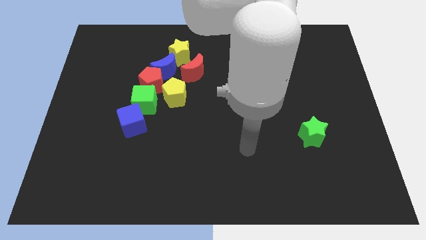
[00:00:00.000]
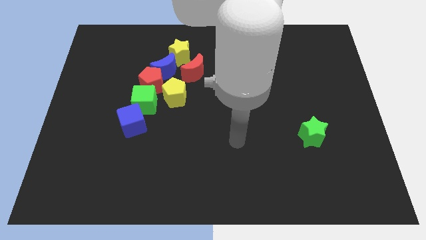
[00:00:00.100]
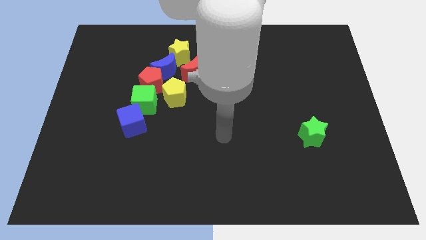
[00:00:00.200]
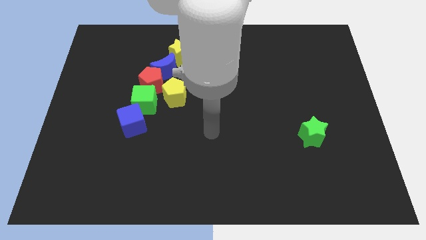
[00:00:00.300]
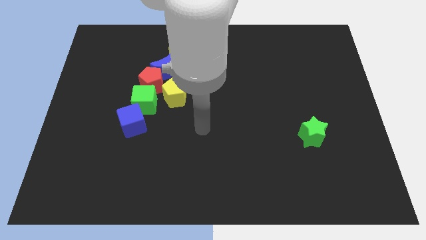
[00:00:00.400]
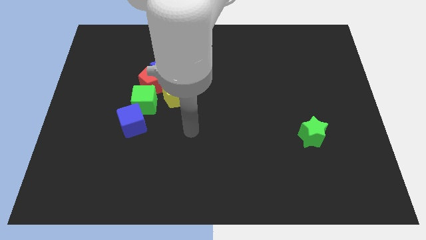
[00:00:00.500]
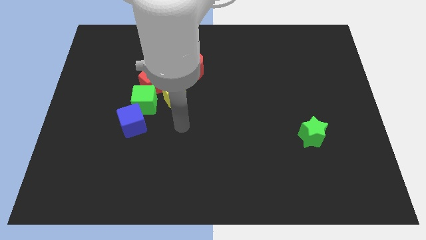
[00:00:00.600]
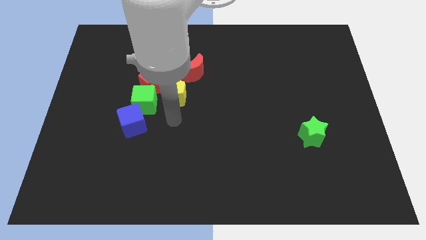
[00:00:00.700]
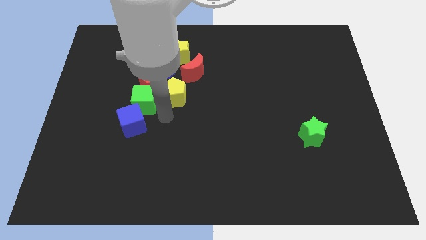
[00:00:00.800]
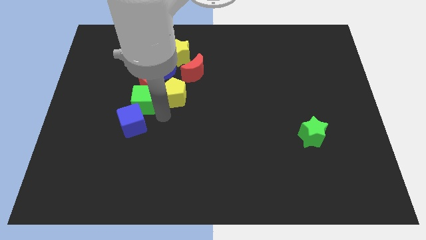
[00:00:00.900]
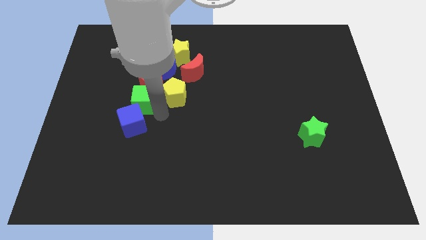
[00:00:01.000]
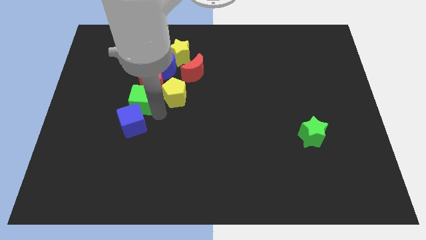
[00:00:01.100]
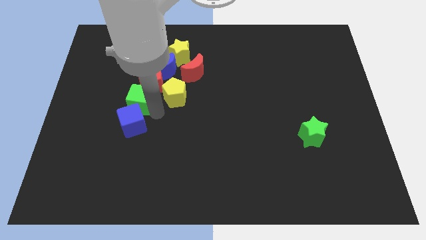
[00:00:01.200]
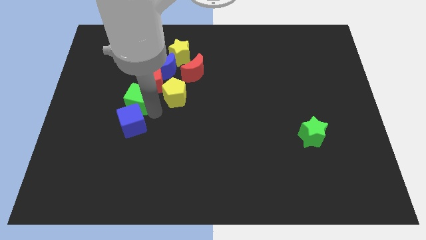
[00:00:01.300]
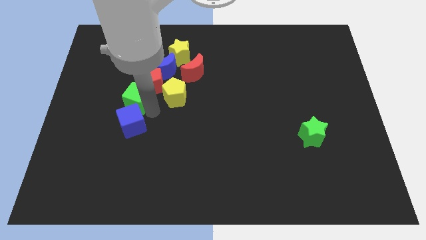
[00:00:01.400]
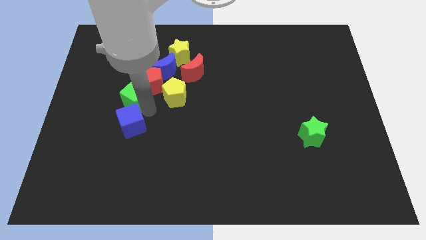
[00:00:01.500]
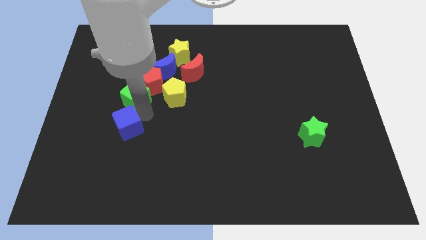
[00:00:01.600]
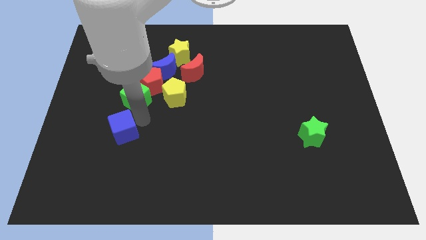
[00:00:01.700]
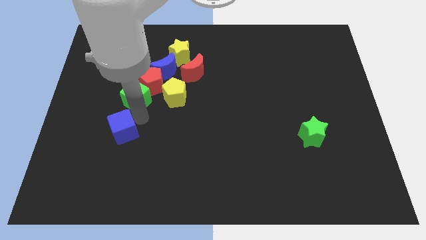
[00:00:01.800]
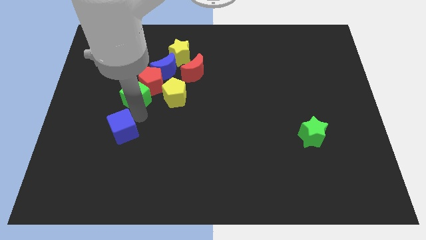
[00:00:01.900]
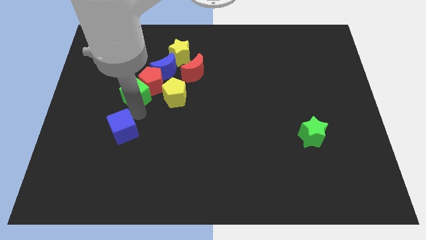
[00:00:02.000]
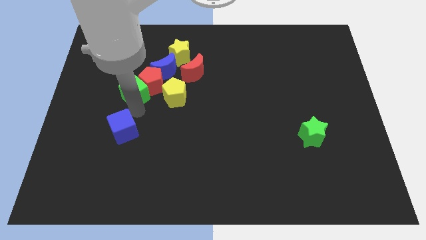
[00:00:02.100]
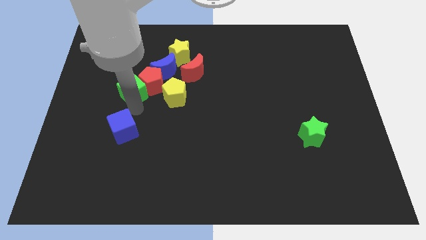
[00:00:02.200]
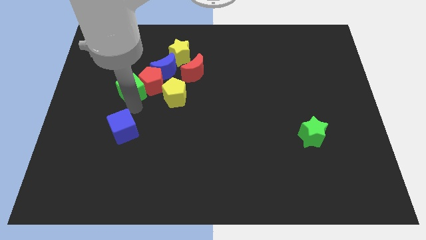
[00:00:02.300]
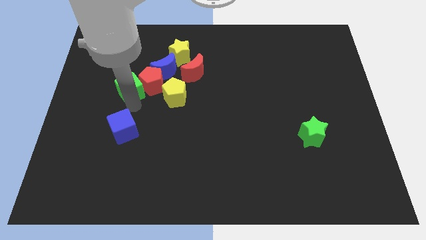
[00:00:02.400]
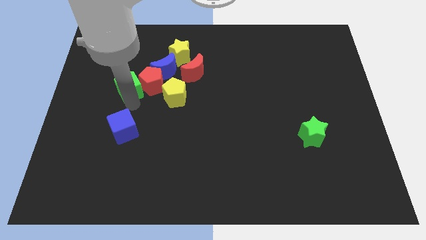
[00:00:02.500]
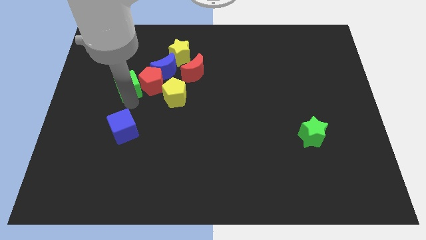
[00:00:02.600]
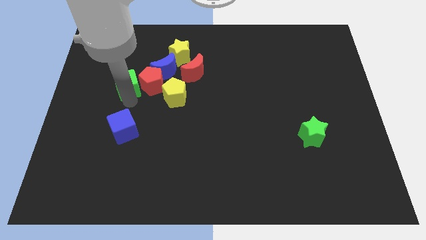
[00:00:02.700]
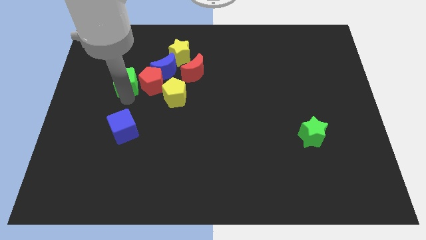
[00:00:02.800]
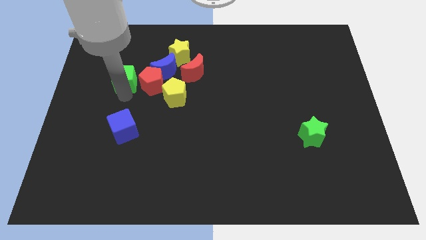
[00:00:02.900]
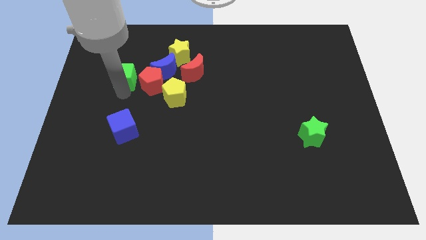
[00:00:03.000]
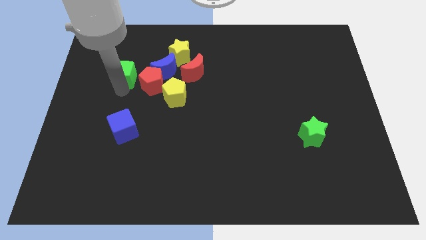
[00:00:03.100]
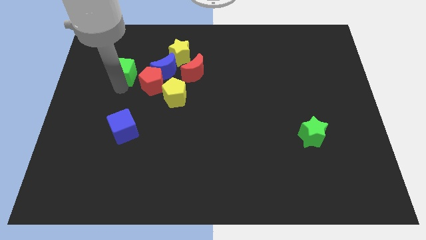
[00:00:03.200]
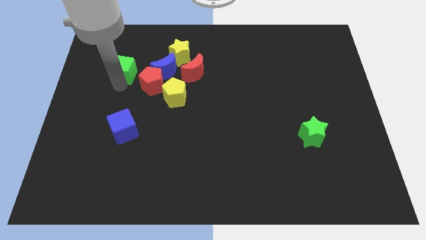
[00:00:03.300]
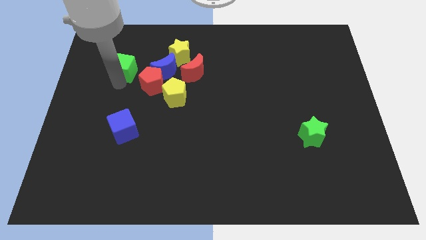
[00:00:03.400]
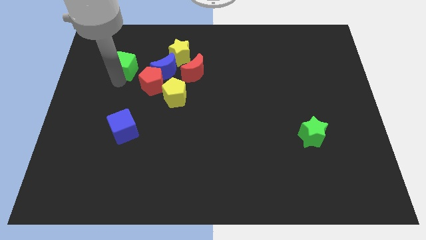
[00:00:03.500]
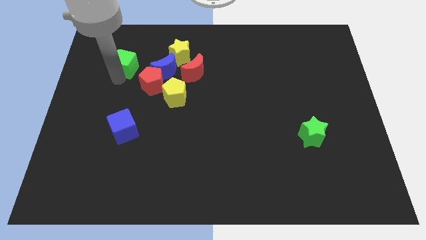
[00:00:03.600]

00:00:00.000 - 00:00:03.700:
slide the green cube left of the yellow star

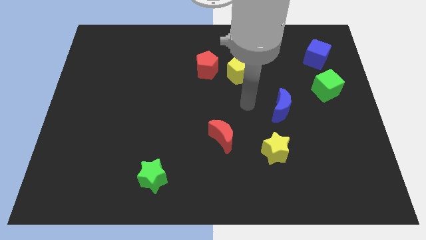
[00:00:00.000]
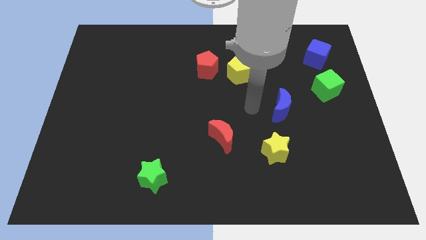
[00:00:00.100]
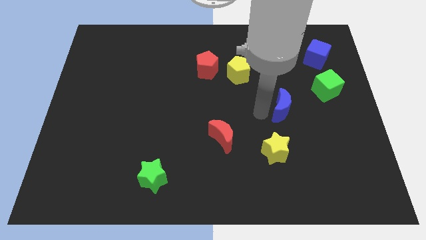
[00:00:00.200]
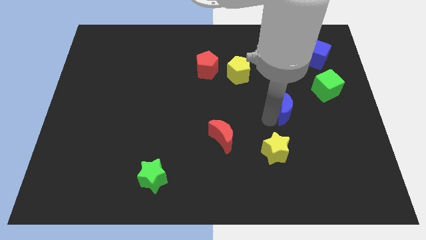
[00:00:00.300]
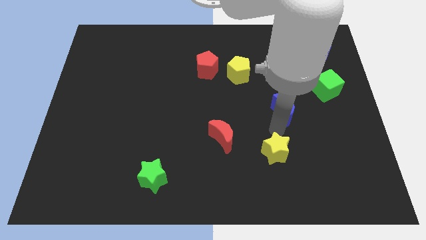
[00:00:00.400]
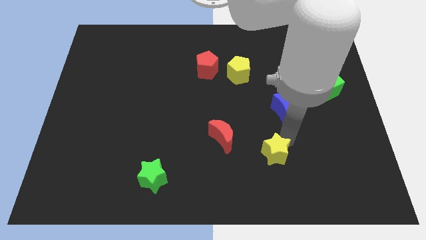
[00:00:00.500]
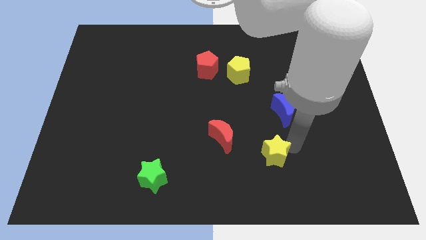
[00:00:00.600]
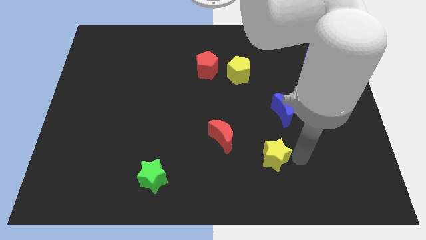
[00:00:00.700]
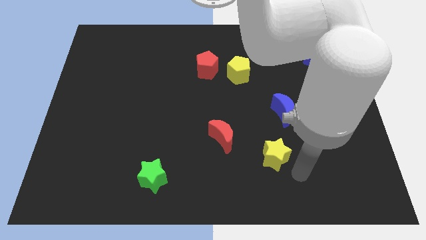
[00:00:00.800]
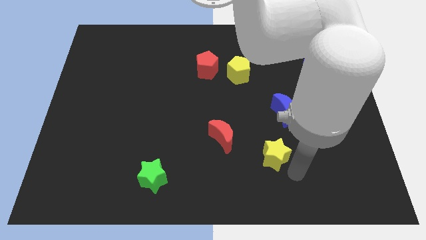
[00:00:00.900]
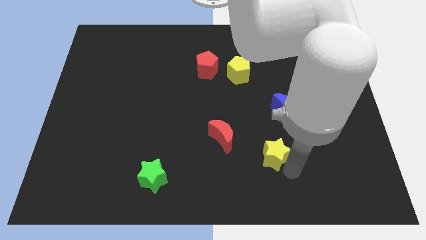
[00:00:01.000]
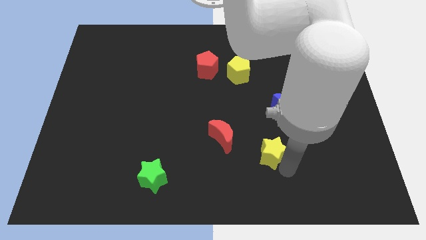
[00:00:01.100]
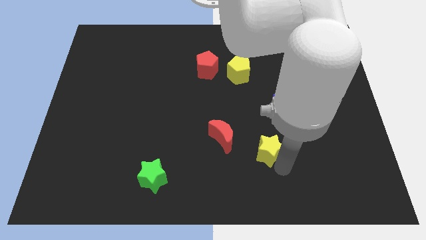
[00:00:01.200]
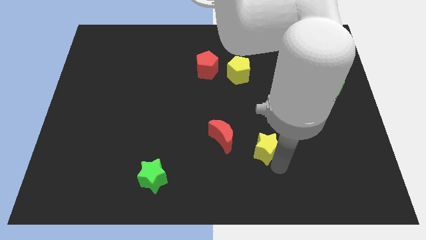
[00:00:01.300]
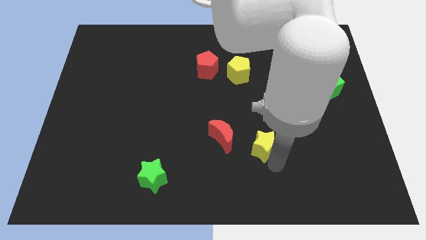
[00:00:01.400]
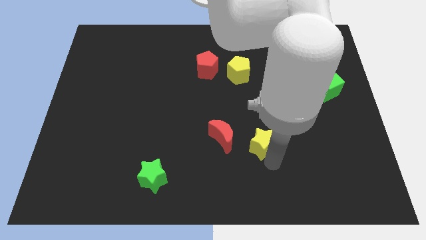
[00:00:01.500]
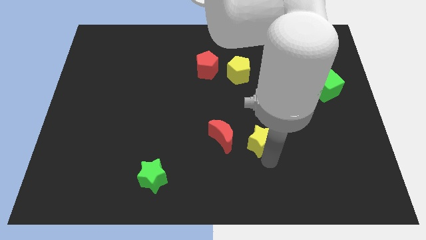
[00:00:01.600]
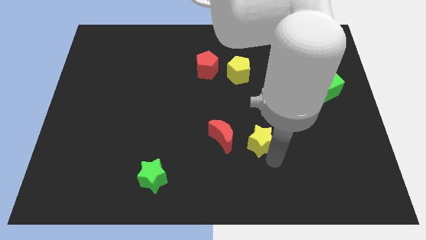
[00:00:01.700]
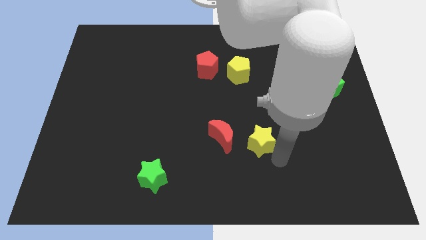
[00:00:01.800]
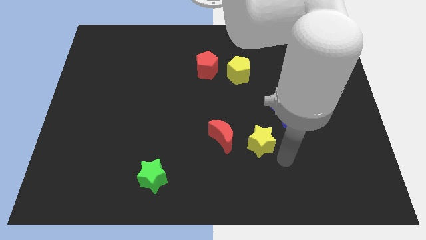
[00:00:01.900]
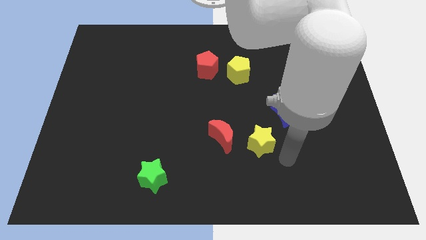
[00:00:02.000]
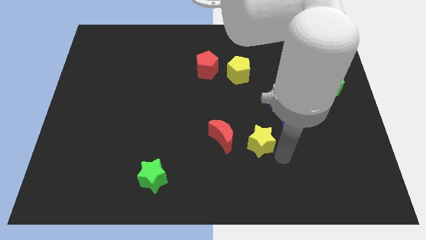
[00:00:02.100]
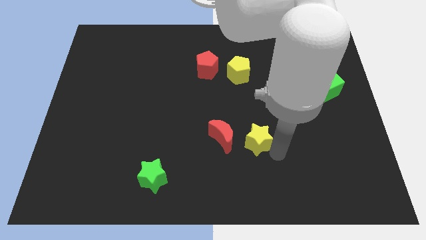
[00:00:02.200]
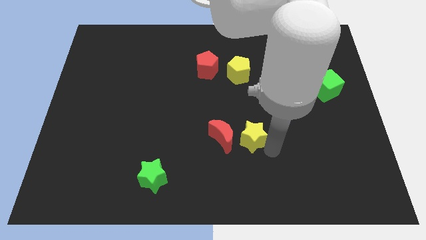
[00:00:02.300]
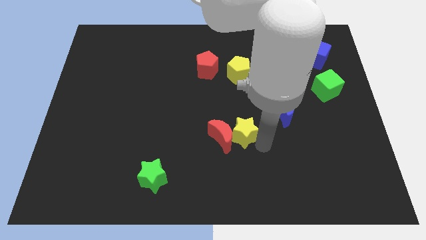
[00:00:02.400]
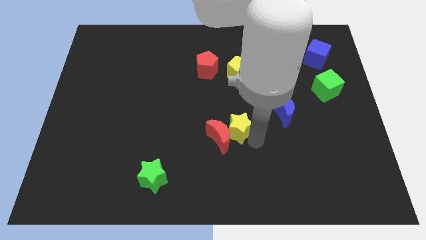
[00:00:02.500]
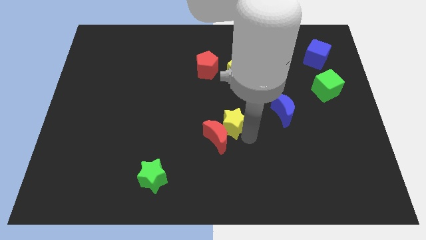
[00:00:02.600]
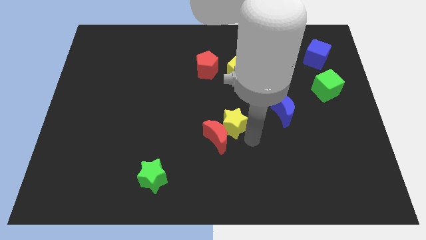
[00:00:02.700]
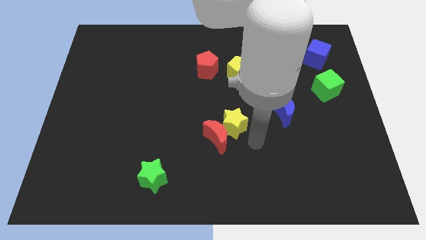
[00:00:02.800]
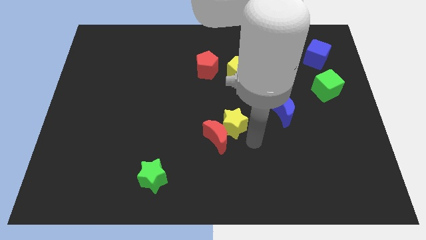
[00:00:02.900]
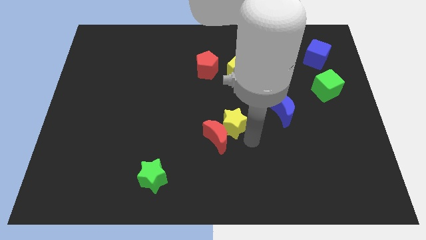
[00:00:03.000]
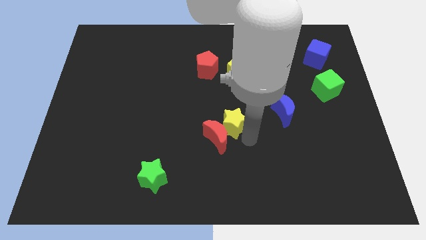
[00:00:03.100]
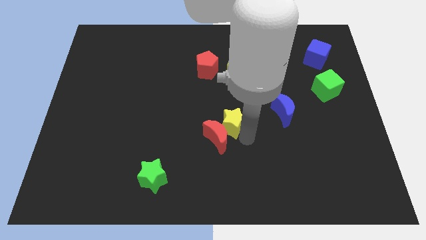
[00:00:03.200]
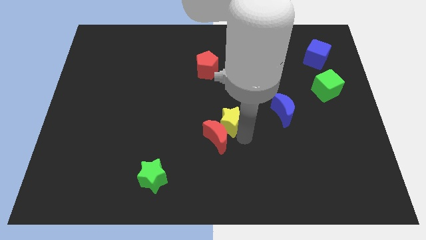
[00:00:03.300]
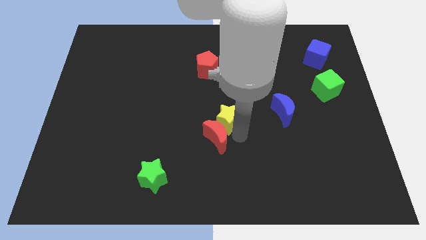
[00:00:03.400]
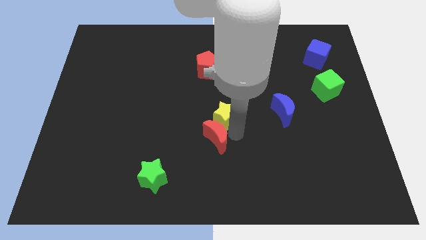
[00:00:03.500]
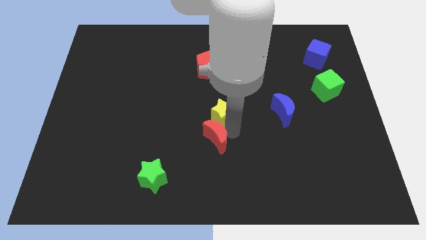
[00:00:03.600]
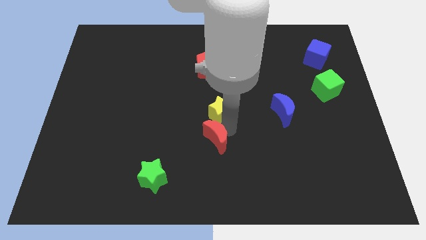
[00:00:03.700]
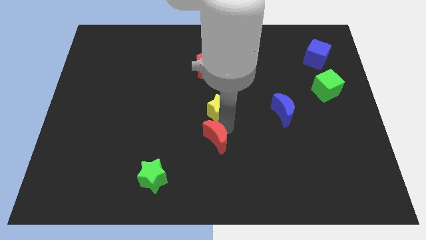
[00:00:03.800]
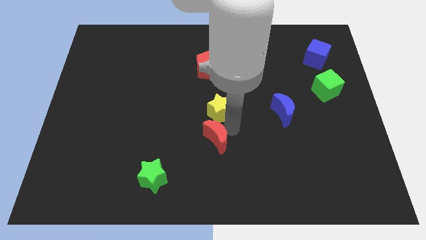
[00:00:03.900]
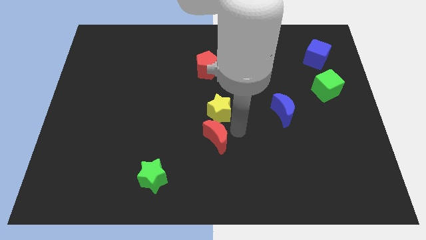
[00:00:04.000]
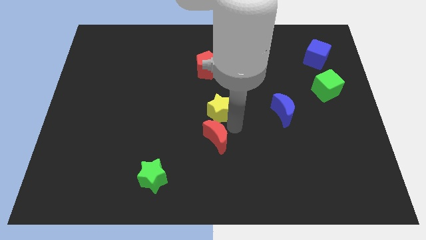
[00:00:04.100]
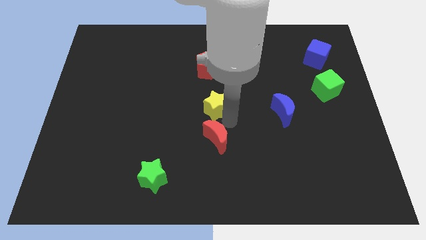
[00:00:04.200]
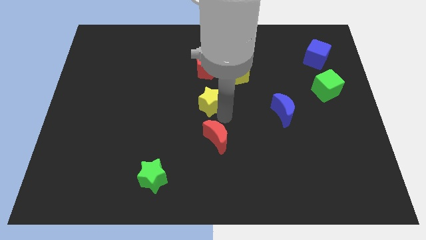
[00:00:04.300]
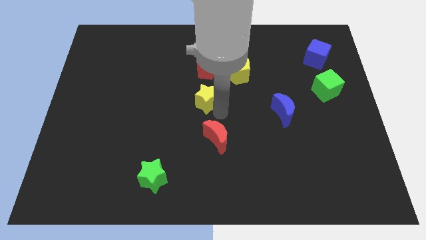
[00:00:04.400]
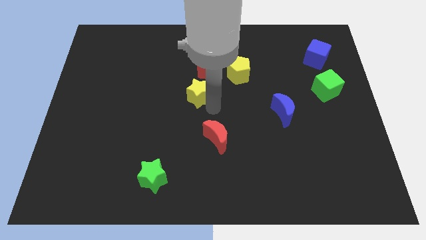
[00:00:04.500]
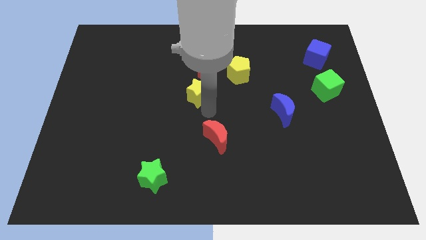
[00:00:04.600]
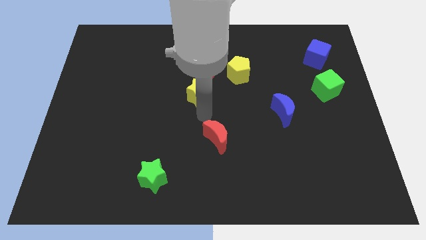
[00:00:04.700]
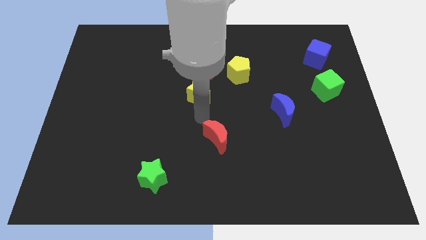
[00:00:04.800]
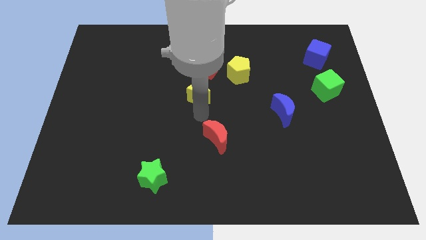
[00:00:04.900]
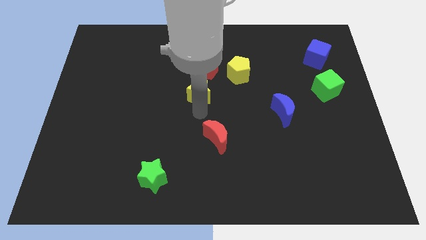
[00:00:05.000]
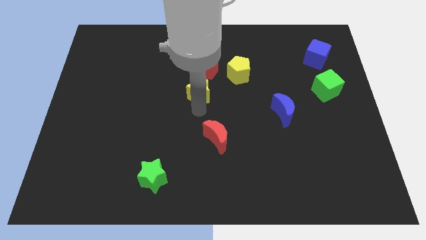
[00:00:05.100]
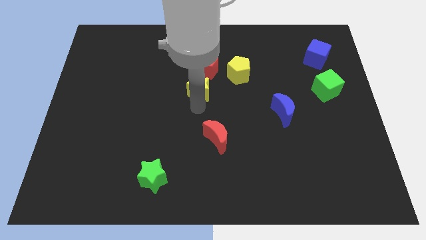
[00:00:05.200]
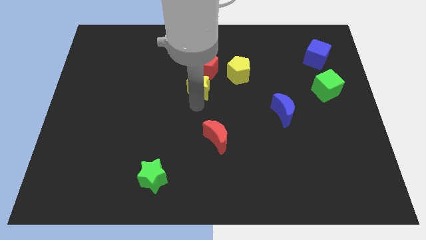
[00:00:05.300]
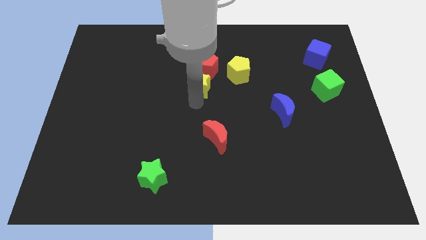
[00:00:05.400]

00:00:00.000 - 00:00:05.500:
move the yellow star just left of the yellow pentagon
